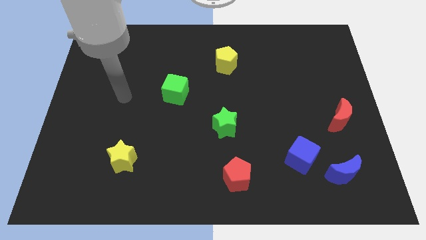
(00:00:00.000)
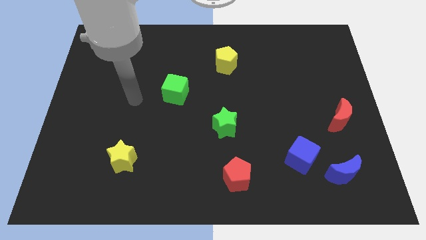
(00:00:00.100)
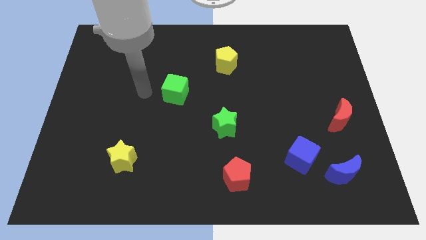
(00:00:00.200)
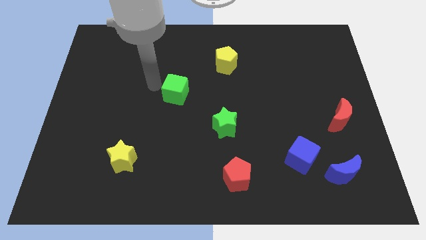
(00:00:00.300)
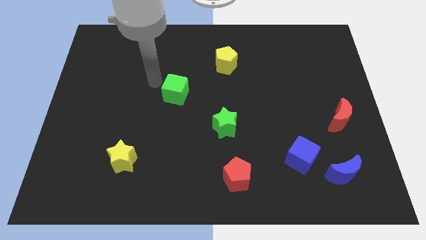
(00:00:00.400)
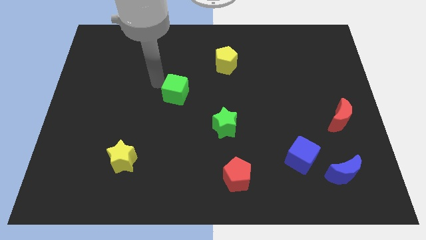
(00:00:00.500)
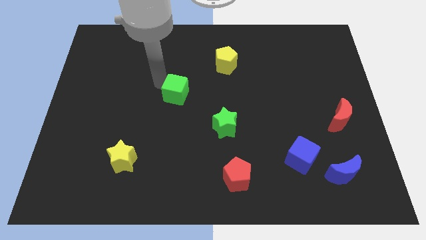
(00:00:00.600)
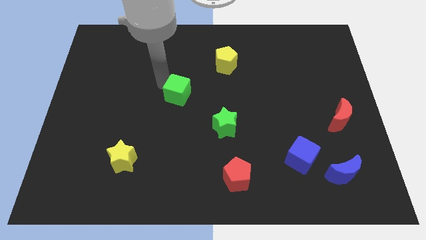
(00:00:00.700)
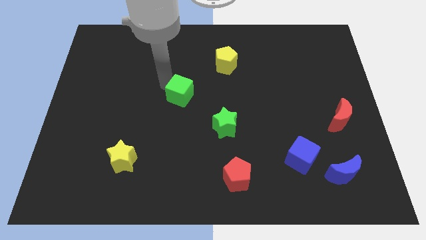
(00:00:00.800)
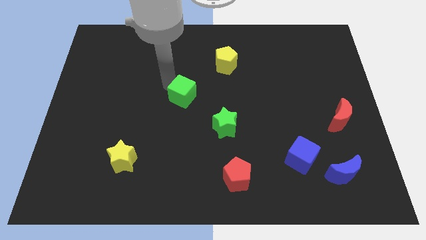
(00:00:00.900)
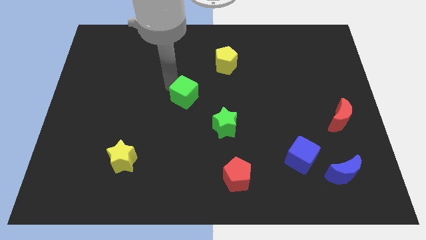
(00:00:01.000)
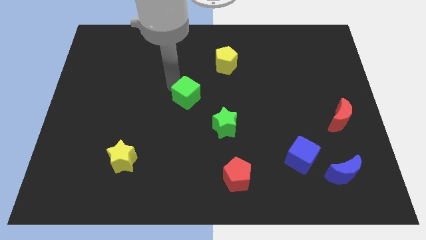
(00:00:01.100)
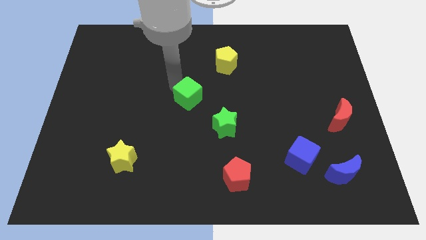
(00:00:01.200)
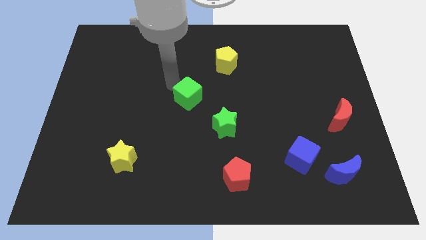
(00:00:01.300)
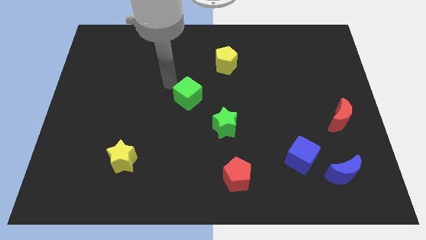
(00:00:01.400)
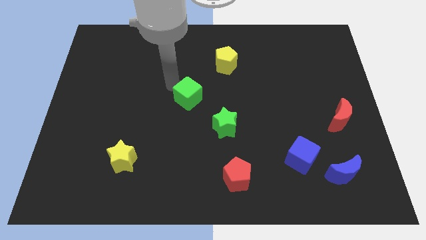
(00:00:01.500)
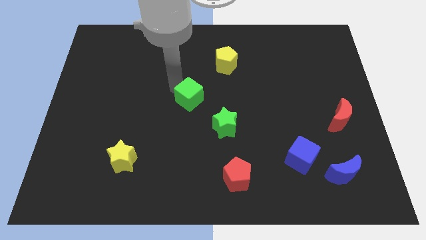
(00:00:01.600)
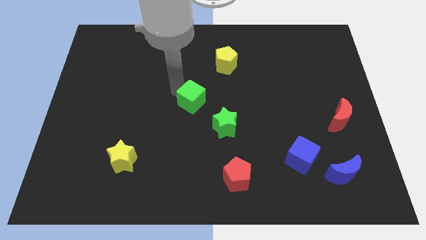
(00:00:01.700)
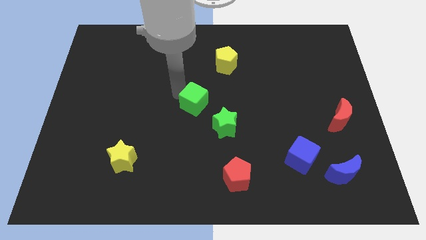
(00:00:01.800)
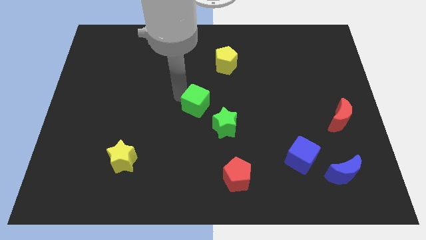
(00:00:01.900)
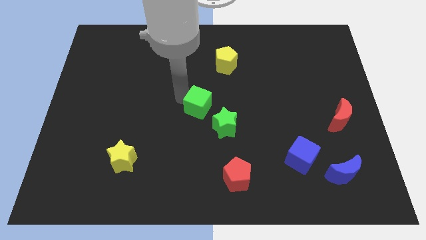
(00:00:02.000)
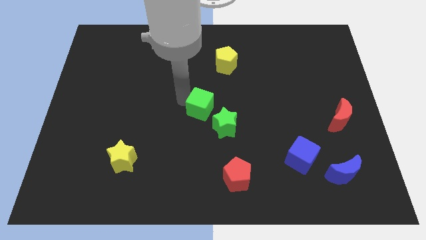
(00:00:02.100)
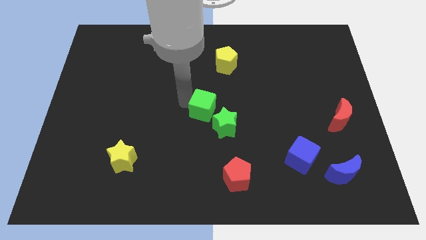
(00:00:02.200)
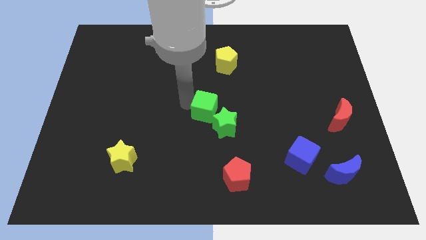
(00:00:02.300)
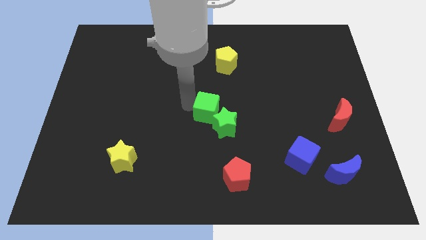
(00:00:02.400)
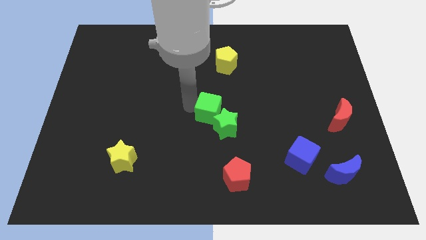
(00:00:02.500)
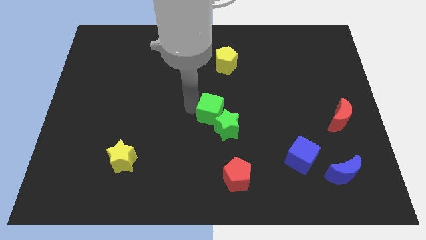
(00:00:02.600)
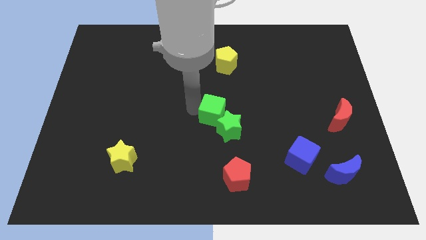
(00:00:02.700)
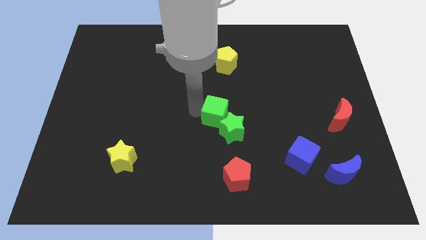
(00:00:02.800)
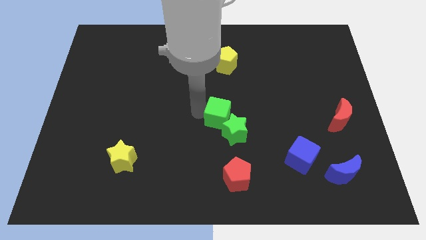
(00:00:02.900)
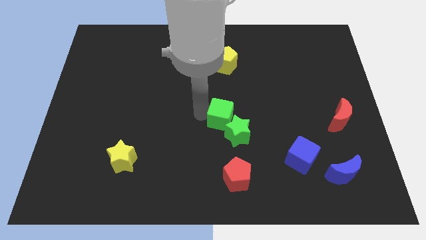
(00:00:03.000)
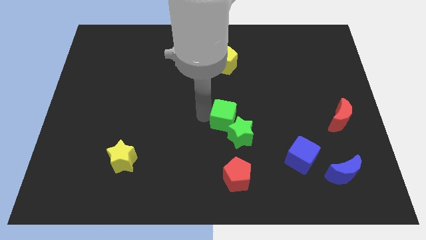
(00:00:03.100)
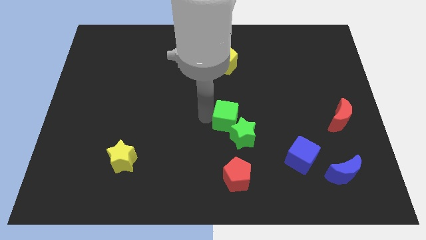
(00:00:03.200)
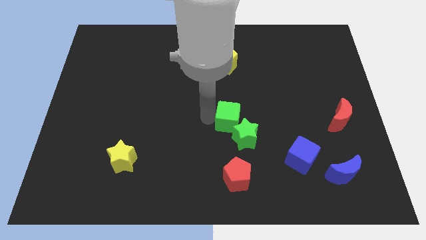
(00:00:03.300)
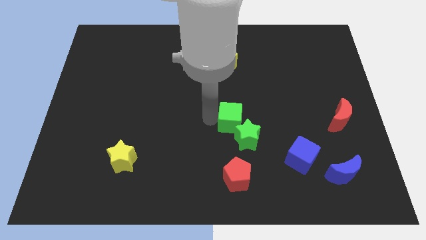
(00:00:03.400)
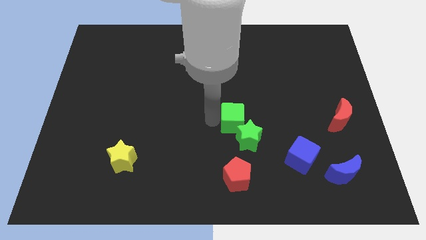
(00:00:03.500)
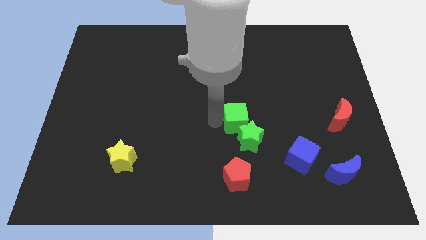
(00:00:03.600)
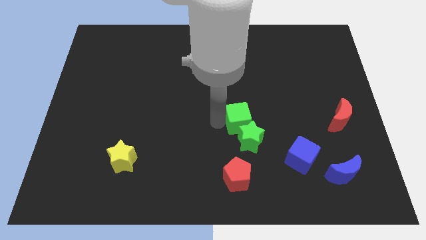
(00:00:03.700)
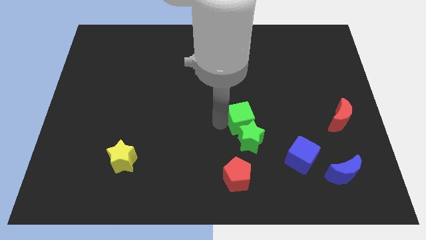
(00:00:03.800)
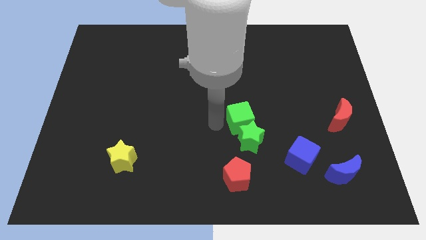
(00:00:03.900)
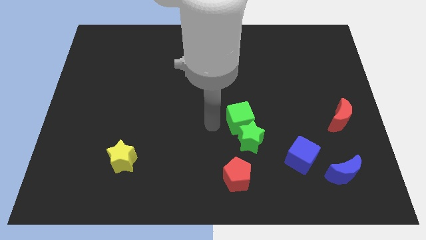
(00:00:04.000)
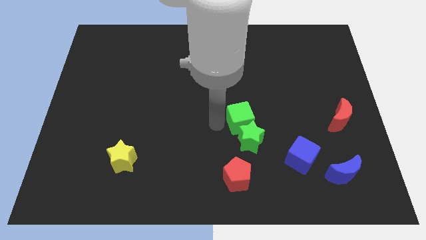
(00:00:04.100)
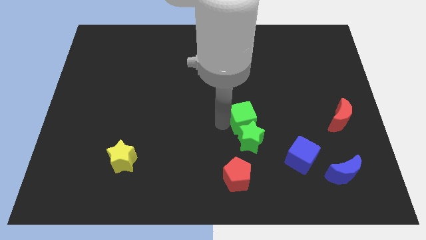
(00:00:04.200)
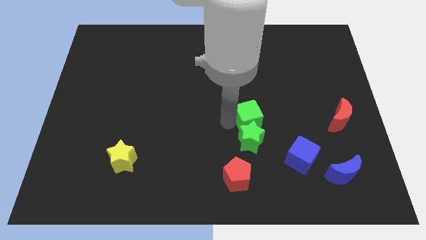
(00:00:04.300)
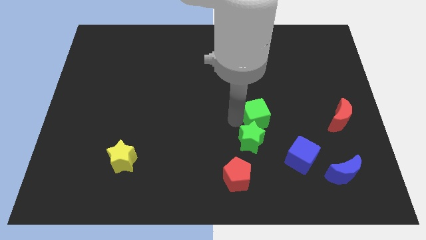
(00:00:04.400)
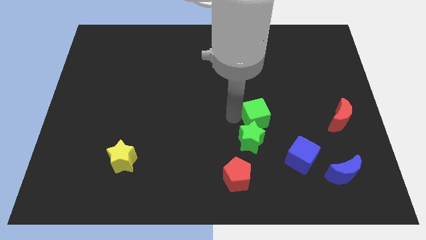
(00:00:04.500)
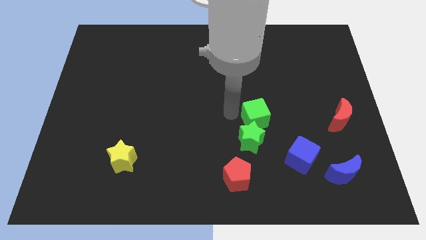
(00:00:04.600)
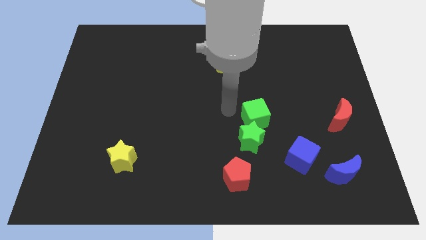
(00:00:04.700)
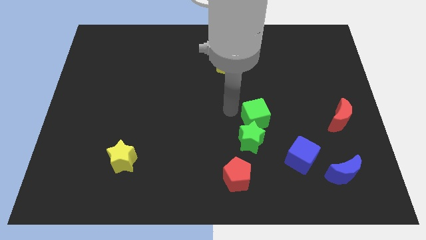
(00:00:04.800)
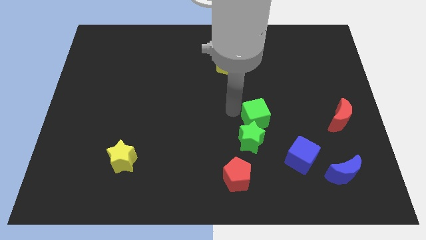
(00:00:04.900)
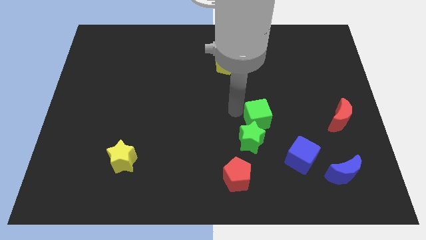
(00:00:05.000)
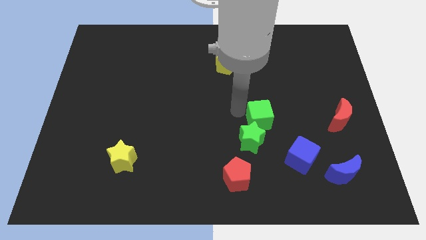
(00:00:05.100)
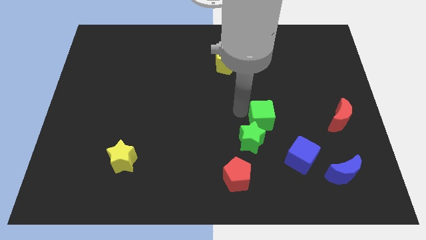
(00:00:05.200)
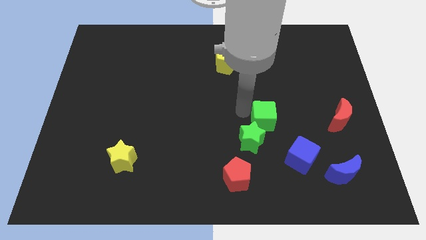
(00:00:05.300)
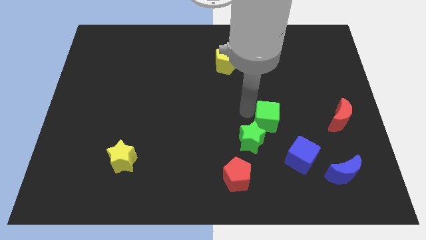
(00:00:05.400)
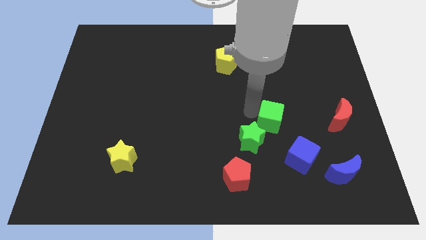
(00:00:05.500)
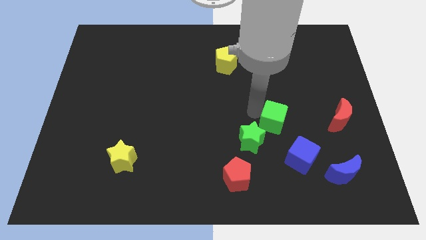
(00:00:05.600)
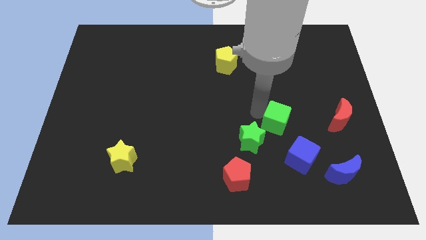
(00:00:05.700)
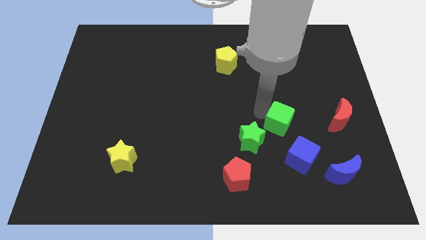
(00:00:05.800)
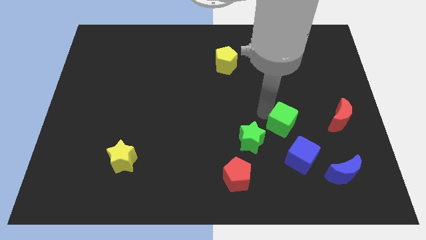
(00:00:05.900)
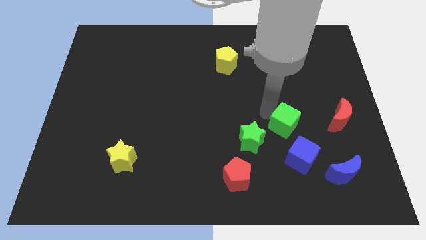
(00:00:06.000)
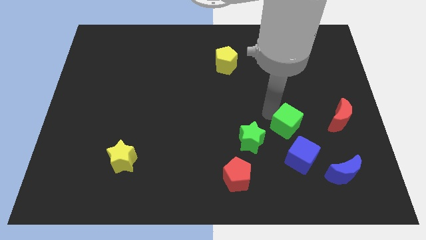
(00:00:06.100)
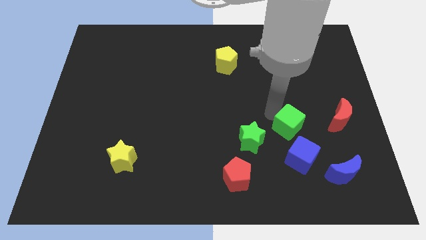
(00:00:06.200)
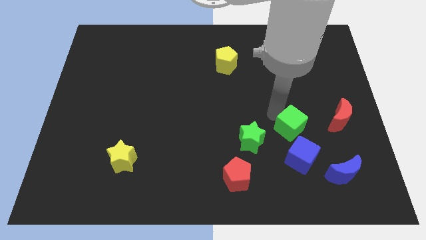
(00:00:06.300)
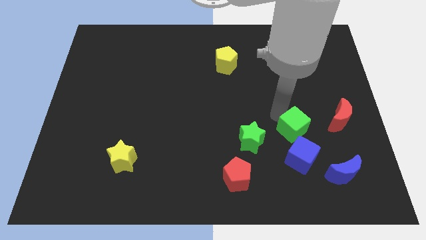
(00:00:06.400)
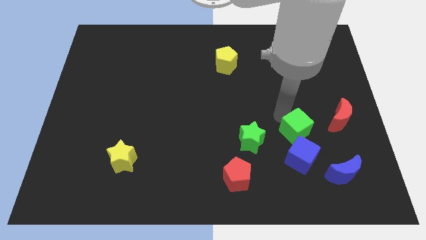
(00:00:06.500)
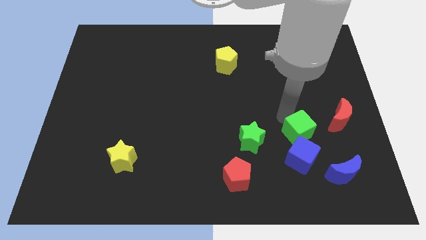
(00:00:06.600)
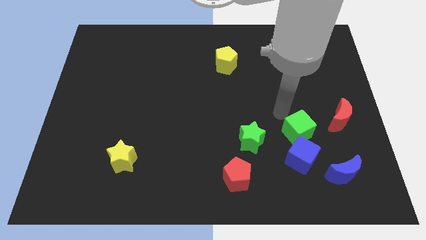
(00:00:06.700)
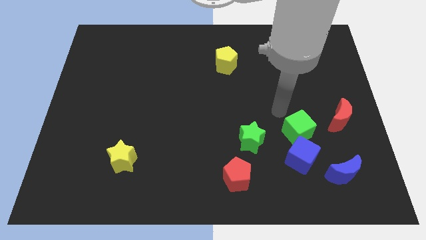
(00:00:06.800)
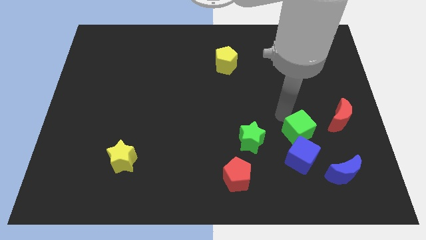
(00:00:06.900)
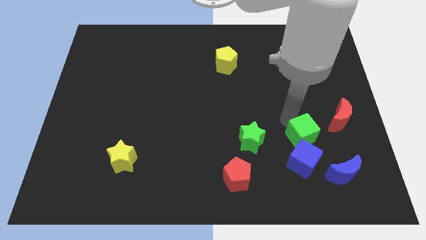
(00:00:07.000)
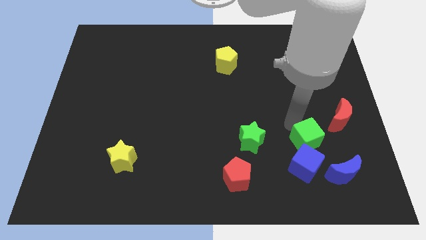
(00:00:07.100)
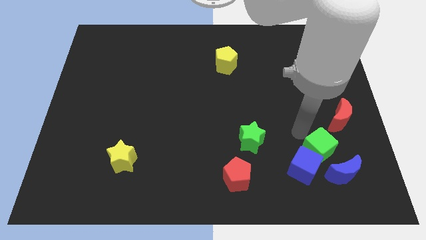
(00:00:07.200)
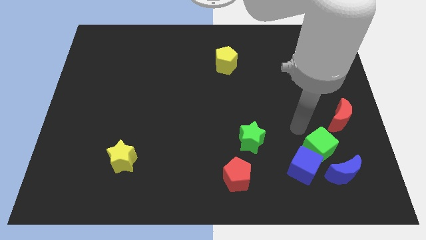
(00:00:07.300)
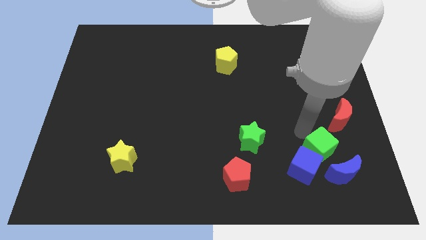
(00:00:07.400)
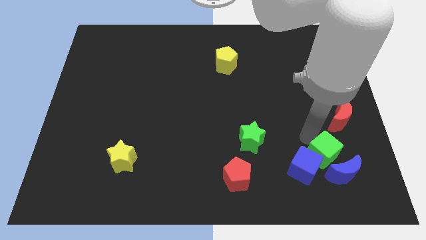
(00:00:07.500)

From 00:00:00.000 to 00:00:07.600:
slide the green cube next to the blue moon
